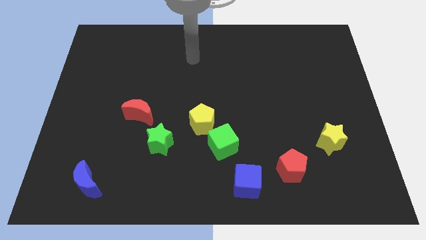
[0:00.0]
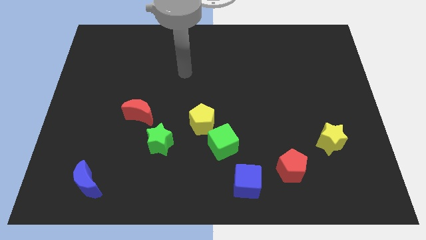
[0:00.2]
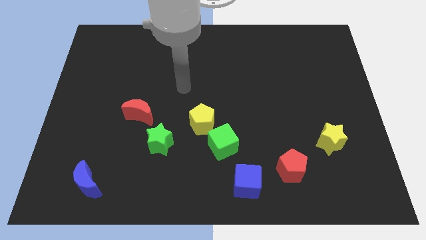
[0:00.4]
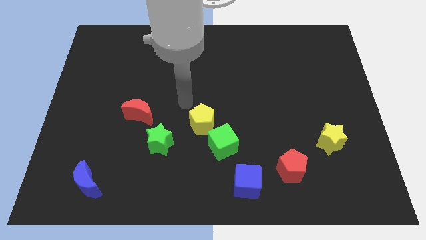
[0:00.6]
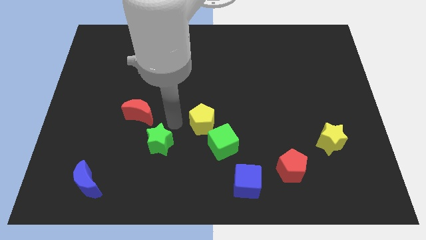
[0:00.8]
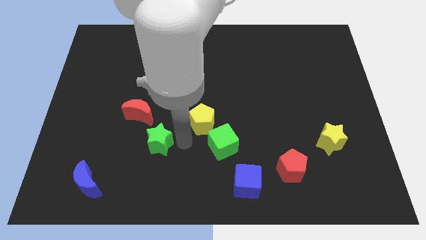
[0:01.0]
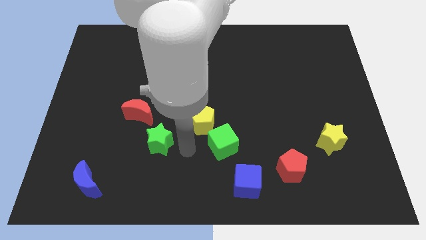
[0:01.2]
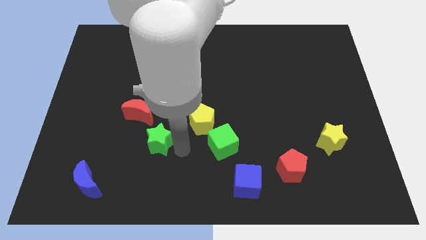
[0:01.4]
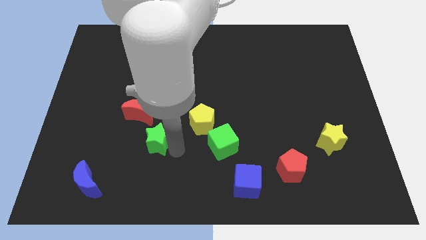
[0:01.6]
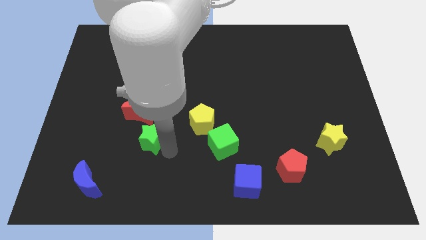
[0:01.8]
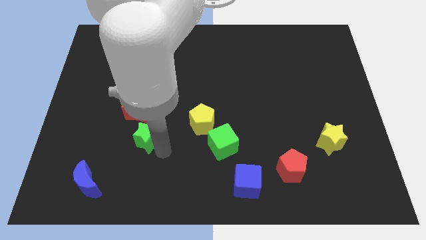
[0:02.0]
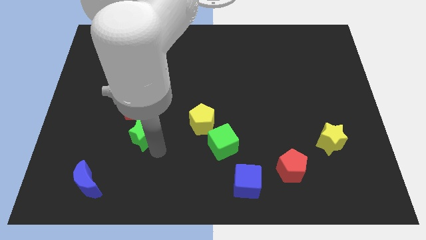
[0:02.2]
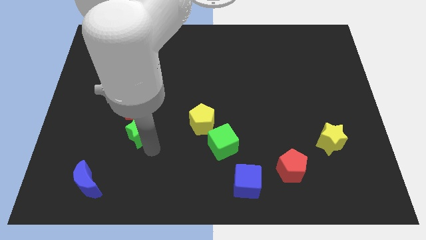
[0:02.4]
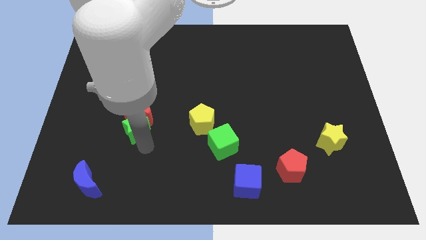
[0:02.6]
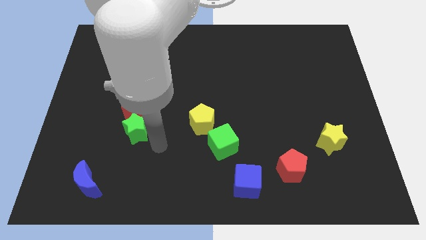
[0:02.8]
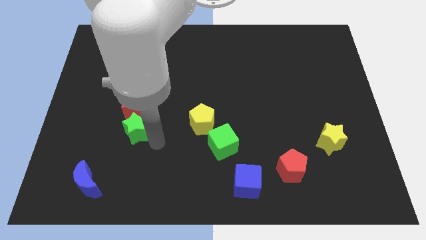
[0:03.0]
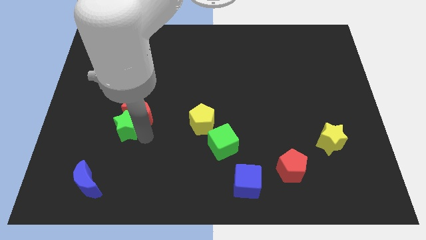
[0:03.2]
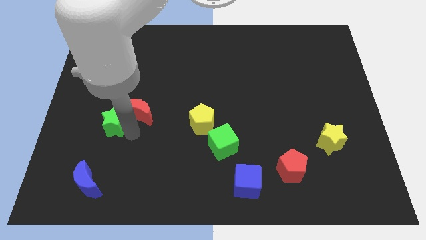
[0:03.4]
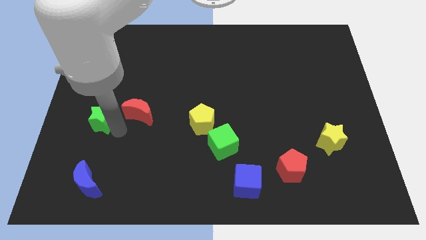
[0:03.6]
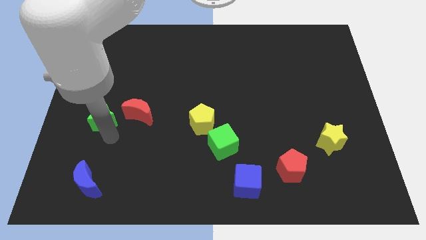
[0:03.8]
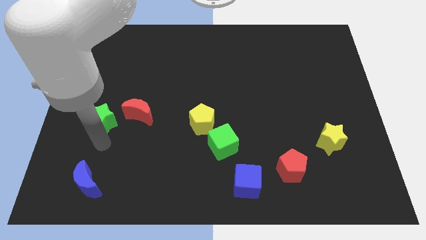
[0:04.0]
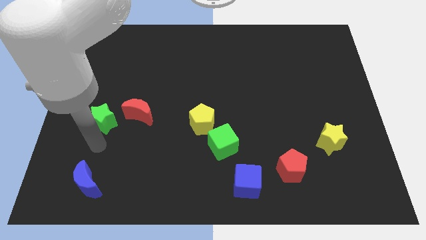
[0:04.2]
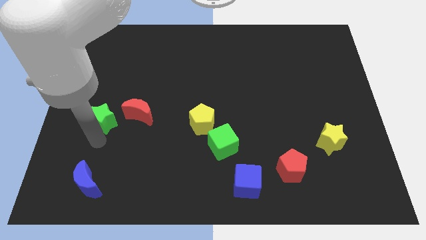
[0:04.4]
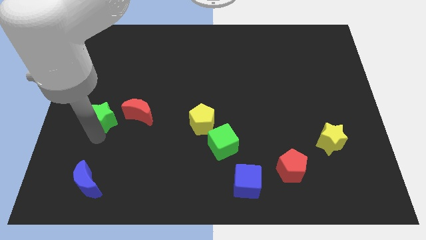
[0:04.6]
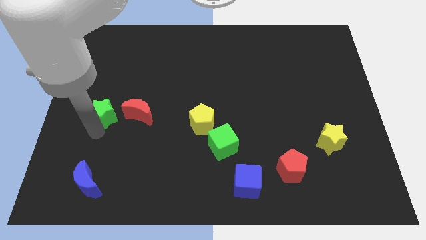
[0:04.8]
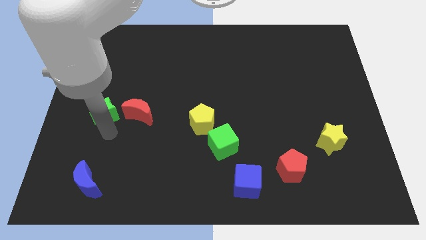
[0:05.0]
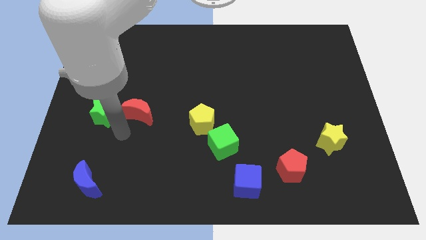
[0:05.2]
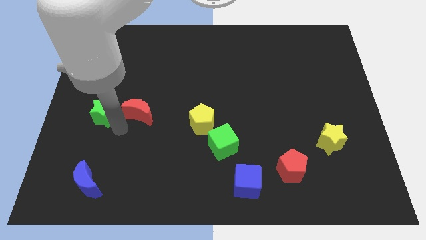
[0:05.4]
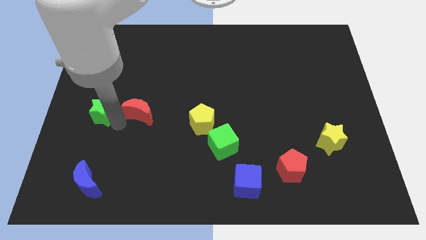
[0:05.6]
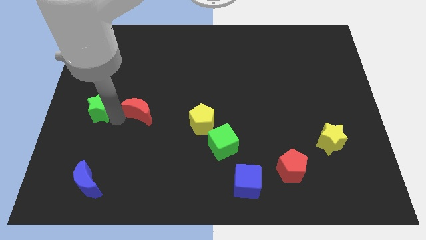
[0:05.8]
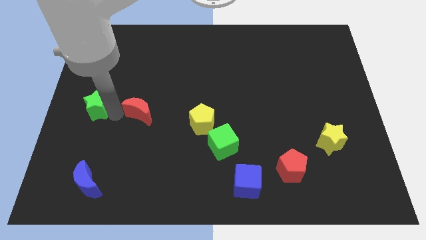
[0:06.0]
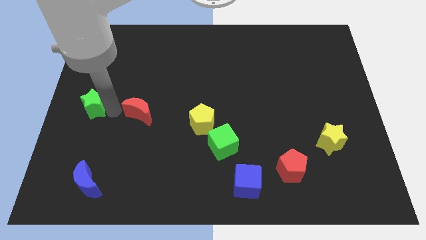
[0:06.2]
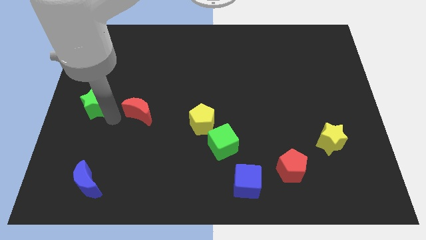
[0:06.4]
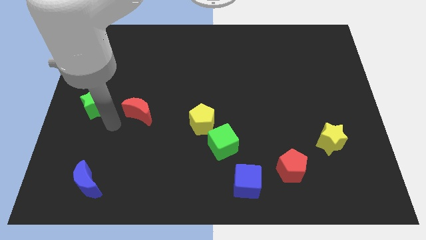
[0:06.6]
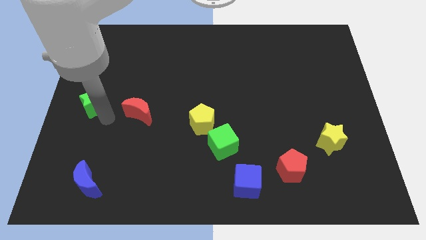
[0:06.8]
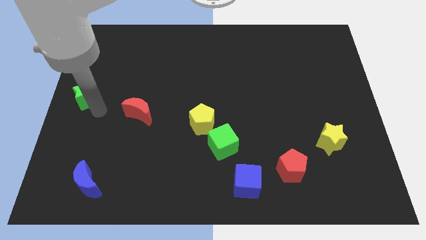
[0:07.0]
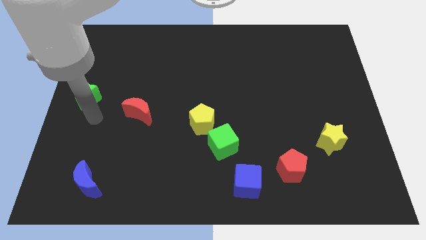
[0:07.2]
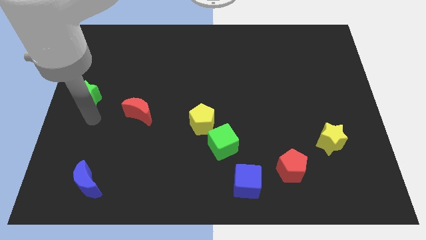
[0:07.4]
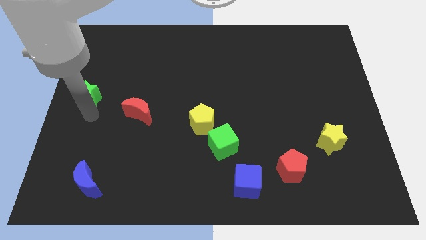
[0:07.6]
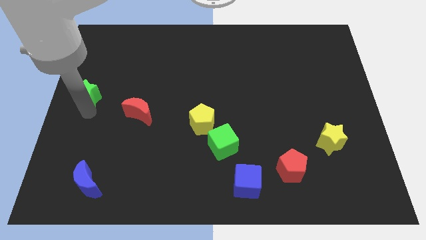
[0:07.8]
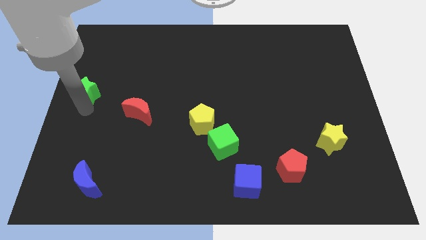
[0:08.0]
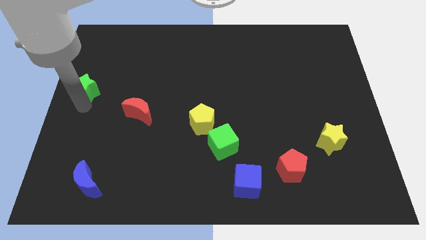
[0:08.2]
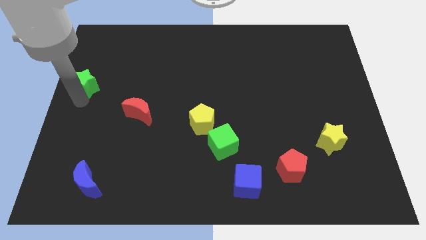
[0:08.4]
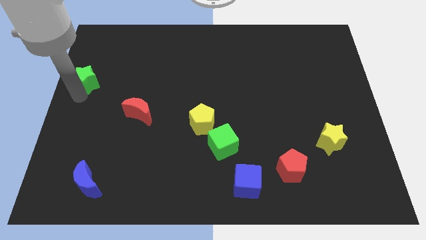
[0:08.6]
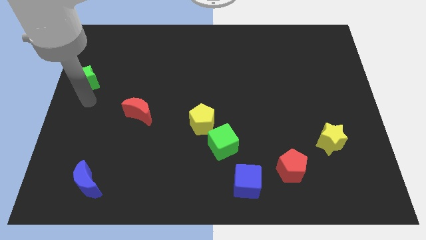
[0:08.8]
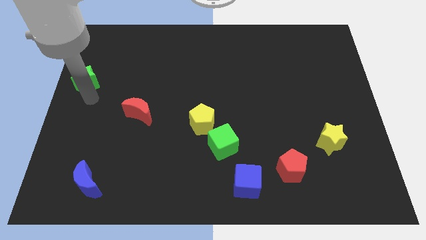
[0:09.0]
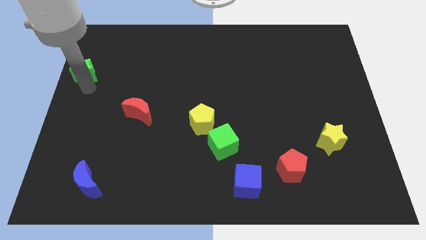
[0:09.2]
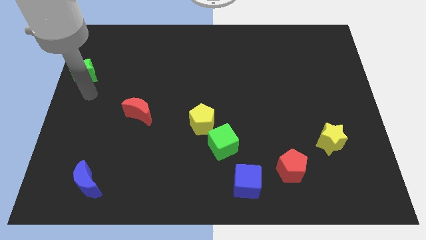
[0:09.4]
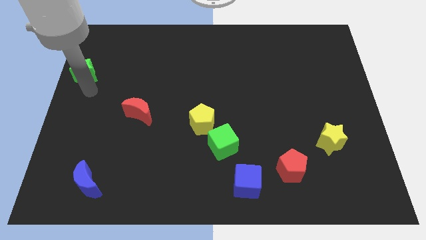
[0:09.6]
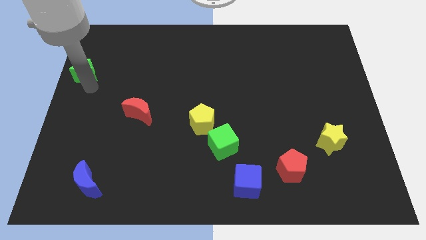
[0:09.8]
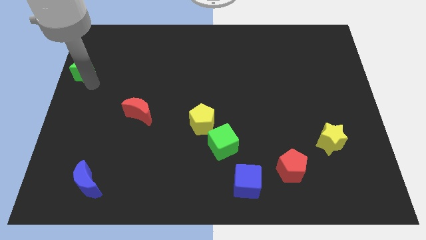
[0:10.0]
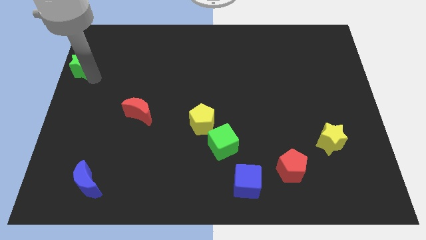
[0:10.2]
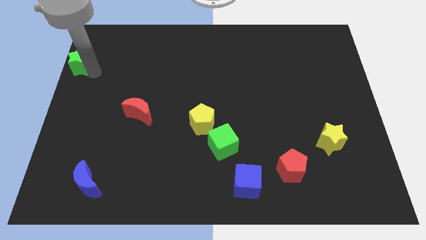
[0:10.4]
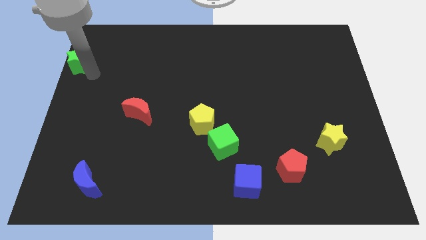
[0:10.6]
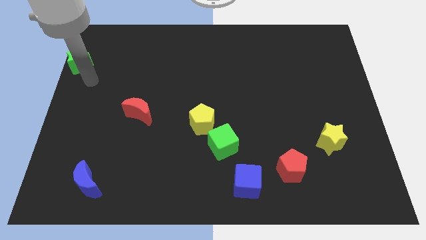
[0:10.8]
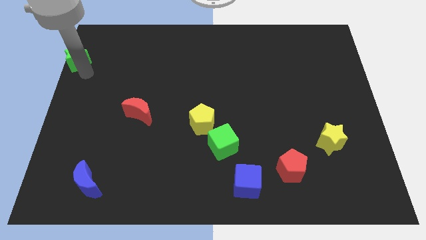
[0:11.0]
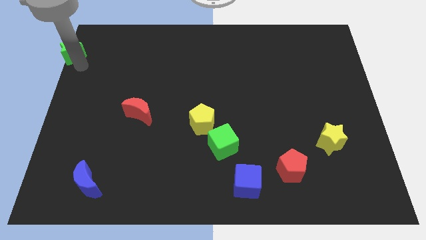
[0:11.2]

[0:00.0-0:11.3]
push the green star to the top left

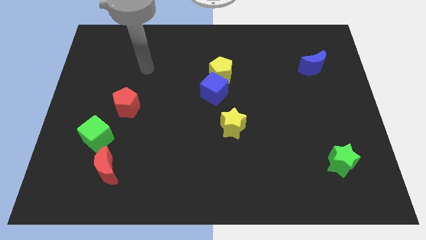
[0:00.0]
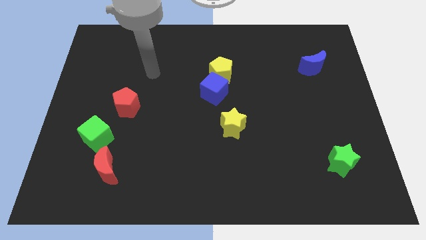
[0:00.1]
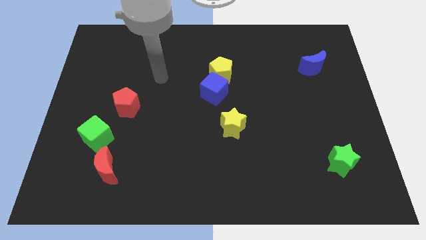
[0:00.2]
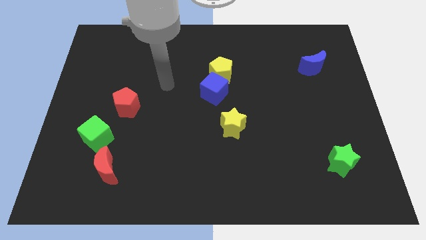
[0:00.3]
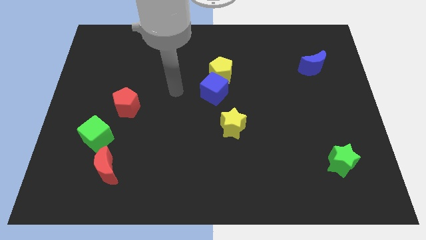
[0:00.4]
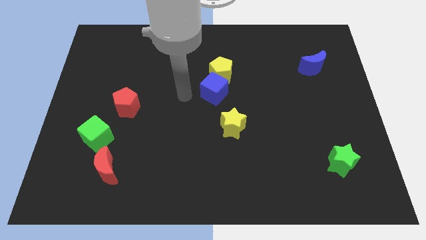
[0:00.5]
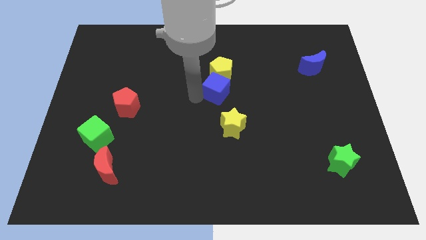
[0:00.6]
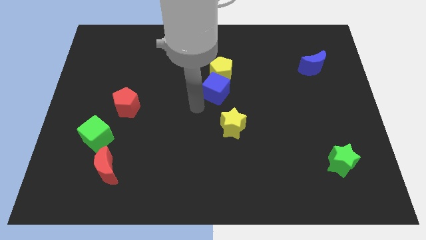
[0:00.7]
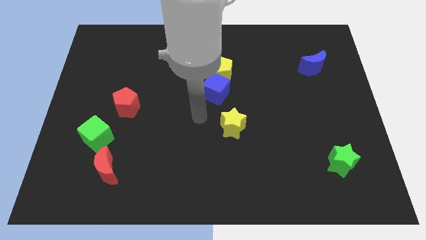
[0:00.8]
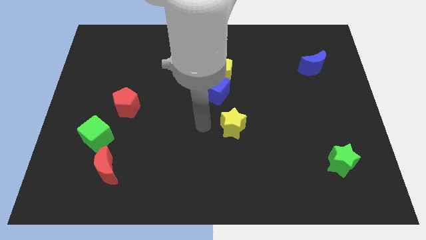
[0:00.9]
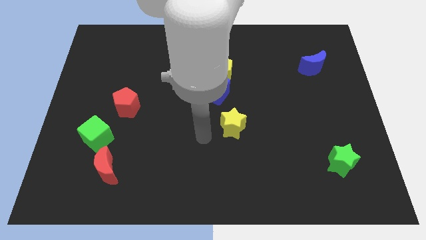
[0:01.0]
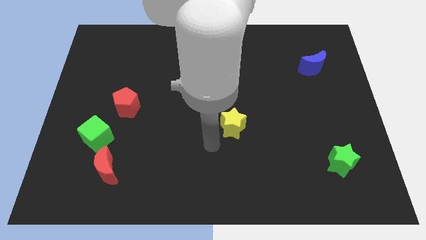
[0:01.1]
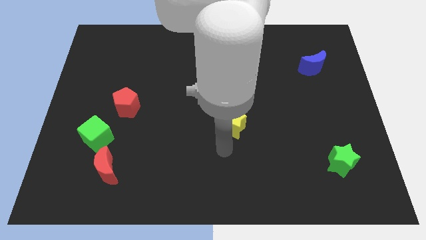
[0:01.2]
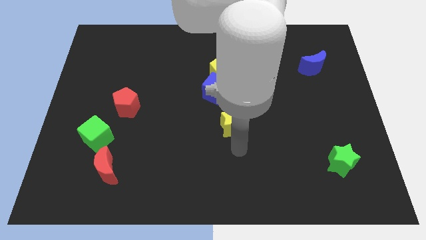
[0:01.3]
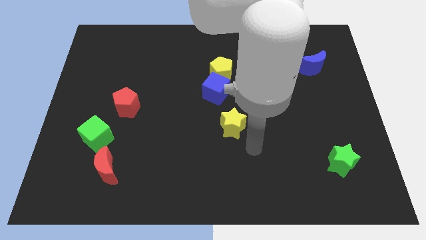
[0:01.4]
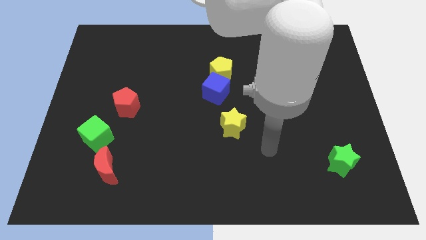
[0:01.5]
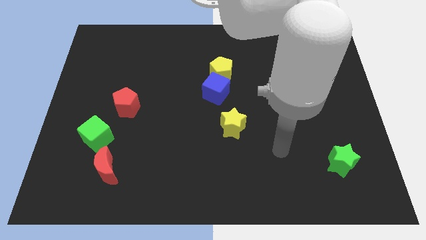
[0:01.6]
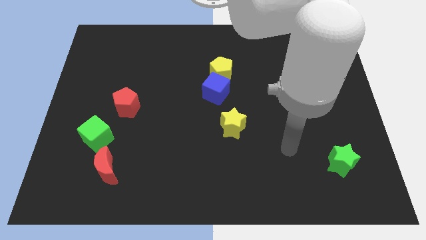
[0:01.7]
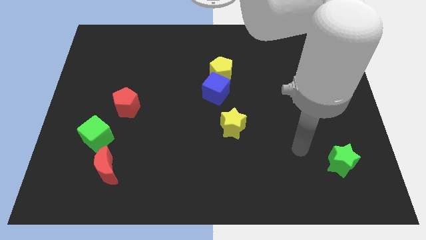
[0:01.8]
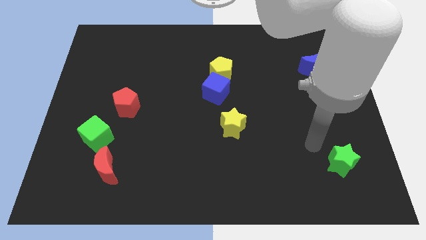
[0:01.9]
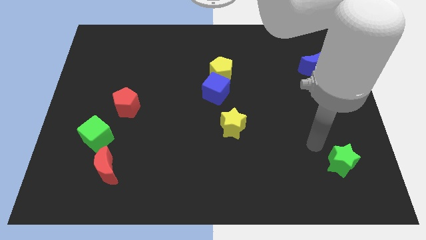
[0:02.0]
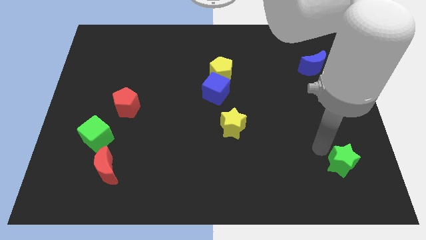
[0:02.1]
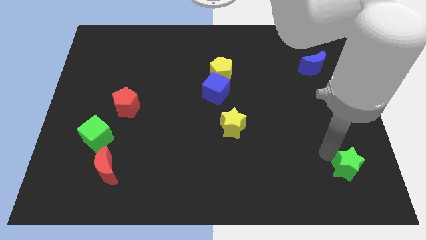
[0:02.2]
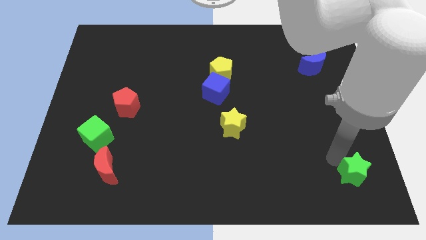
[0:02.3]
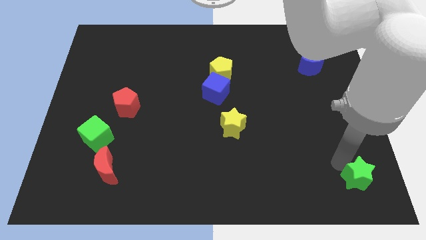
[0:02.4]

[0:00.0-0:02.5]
put the green star to the lower right corner
